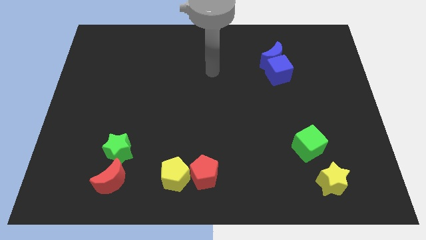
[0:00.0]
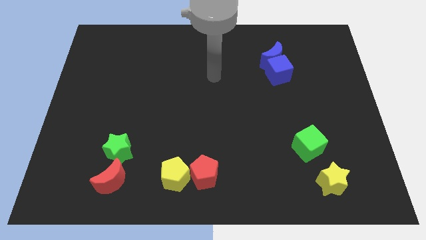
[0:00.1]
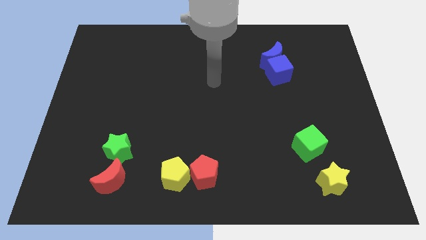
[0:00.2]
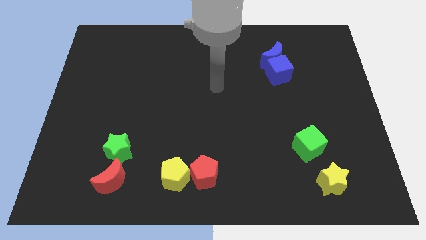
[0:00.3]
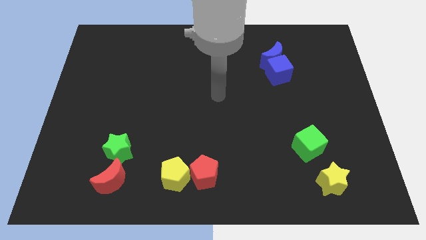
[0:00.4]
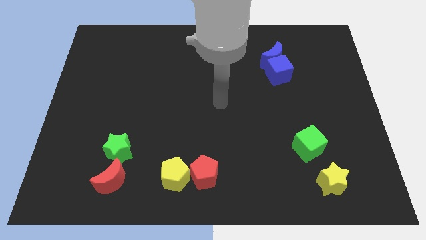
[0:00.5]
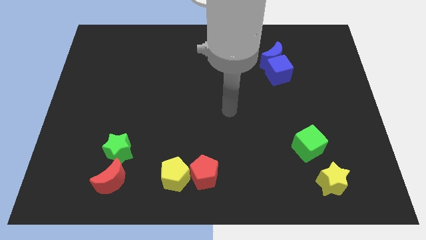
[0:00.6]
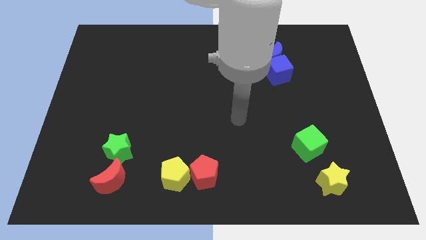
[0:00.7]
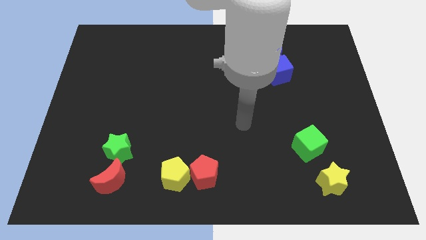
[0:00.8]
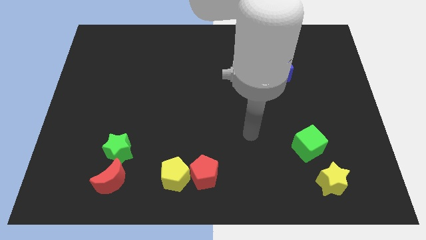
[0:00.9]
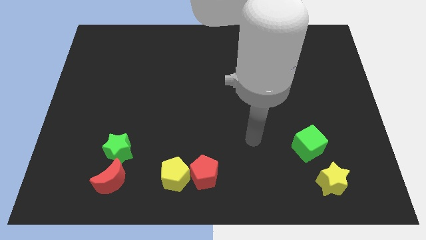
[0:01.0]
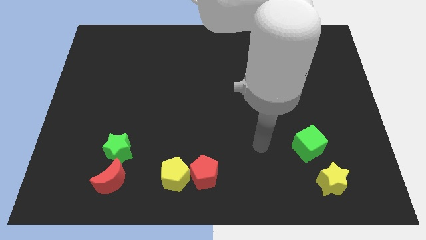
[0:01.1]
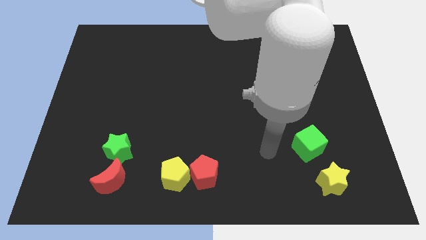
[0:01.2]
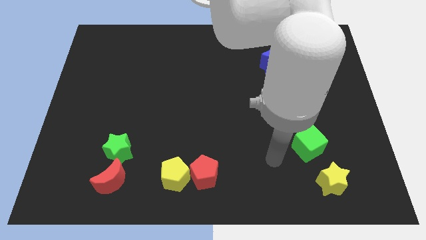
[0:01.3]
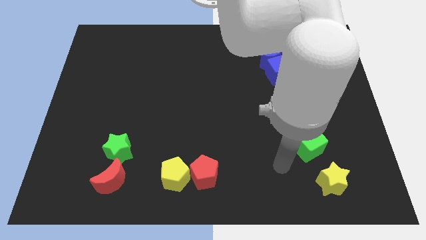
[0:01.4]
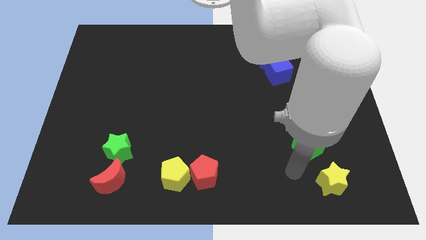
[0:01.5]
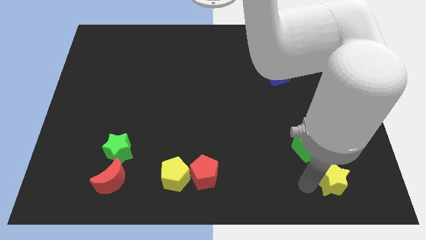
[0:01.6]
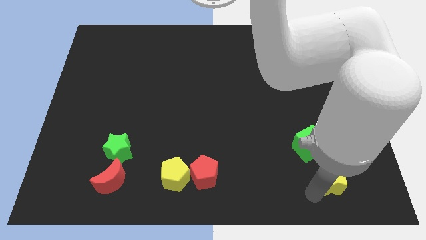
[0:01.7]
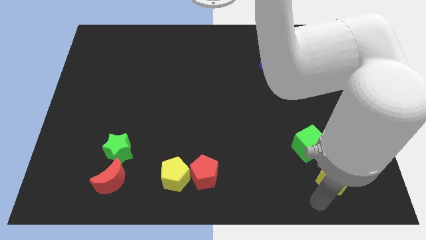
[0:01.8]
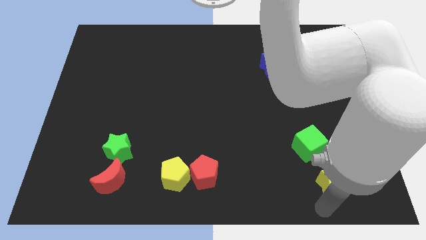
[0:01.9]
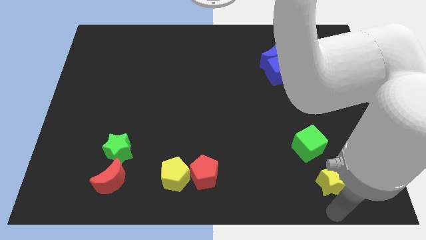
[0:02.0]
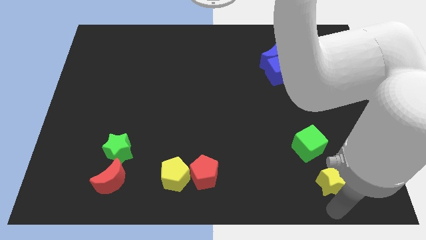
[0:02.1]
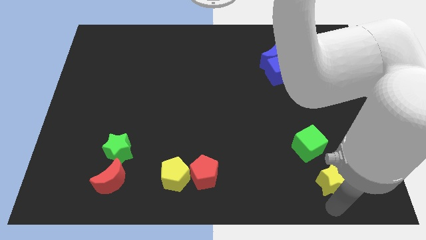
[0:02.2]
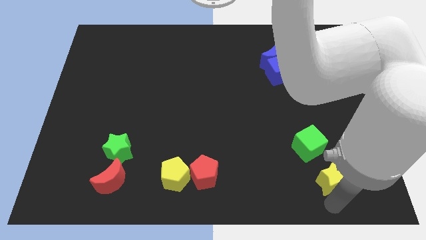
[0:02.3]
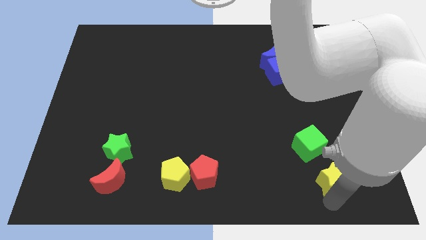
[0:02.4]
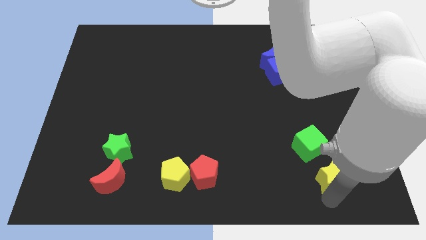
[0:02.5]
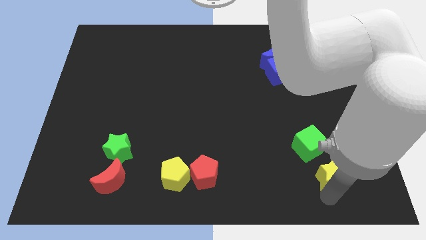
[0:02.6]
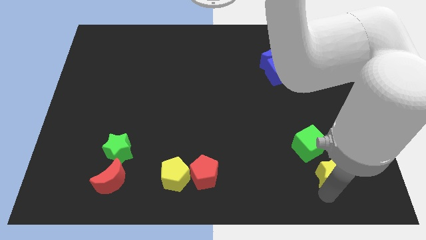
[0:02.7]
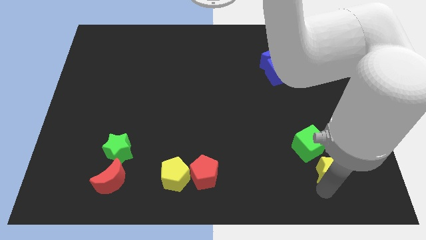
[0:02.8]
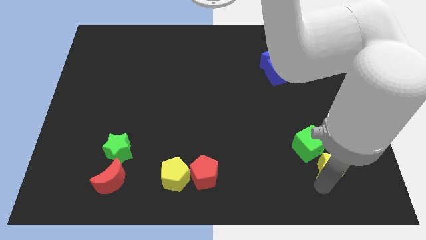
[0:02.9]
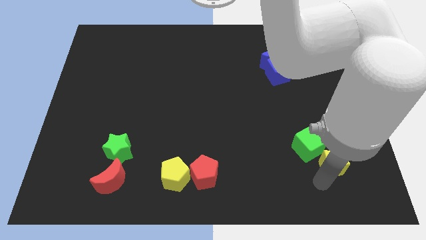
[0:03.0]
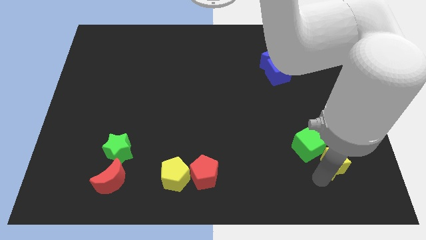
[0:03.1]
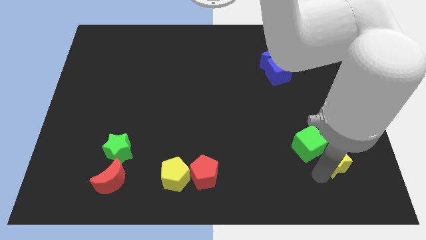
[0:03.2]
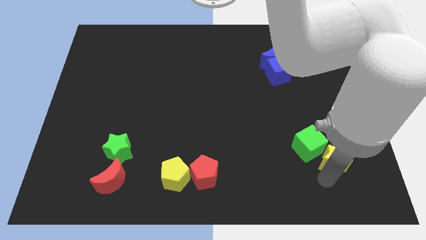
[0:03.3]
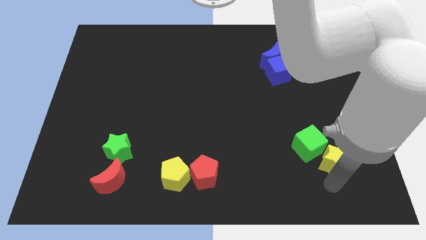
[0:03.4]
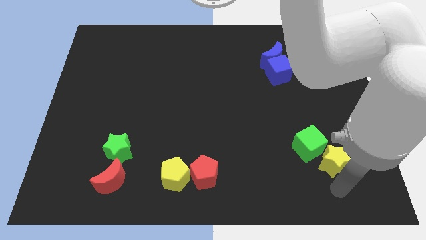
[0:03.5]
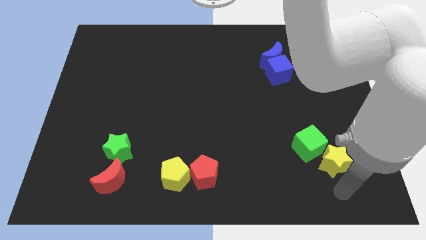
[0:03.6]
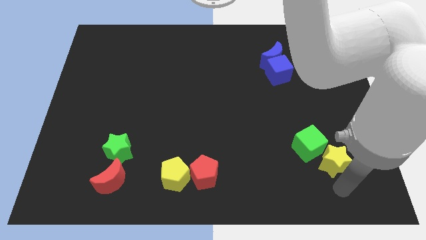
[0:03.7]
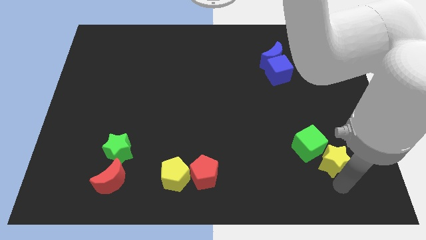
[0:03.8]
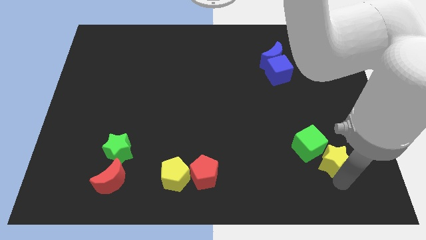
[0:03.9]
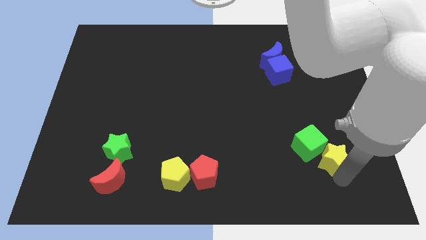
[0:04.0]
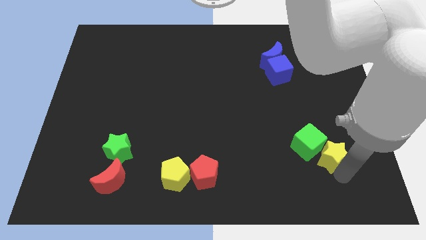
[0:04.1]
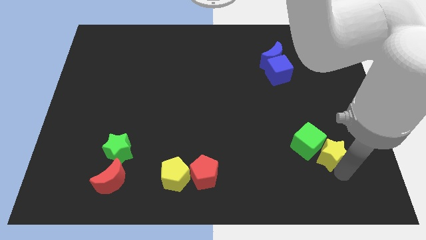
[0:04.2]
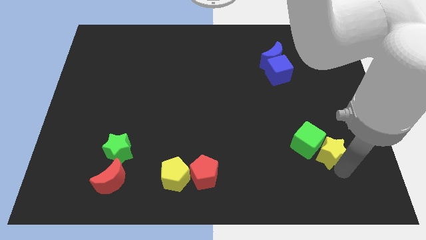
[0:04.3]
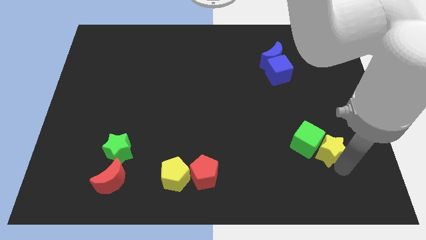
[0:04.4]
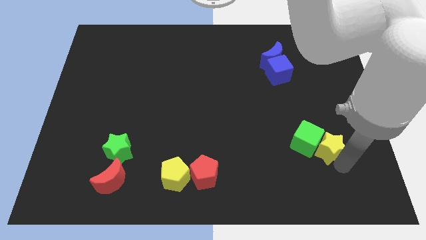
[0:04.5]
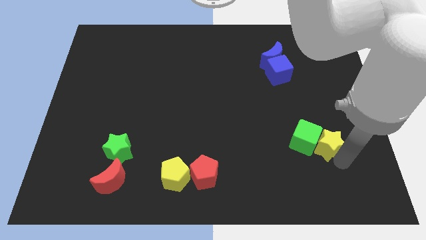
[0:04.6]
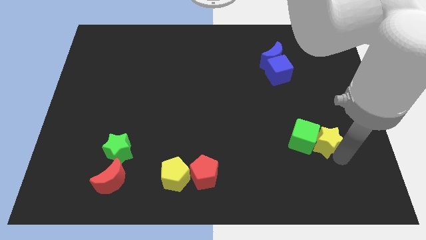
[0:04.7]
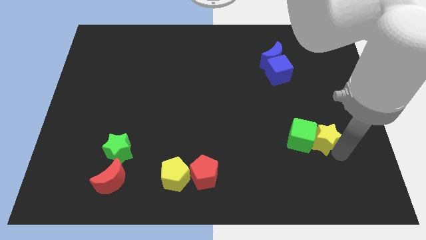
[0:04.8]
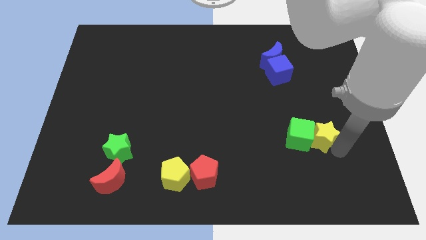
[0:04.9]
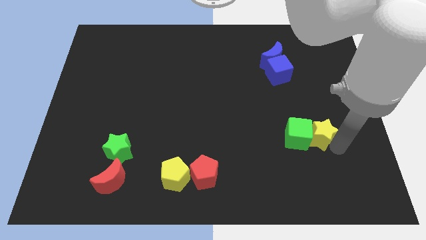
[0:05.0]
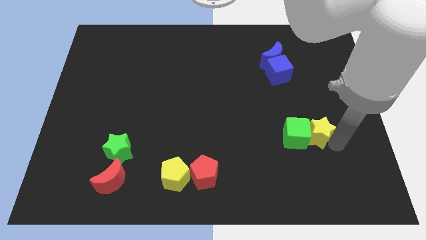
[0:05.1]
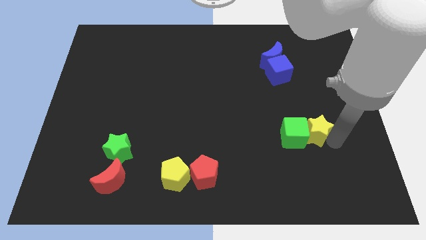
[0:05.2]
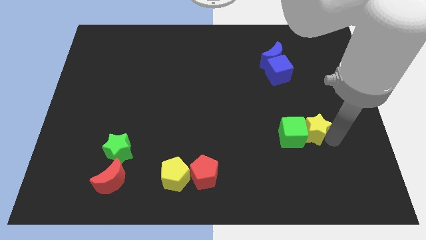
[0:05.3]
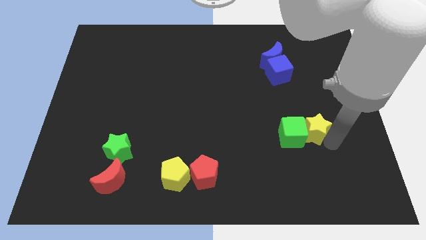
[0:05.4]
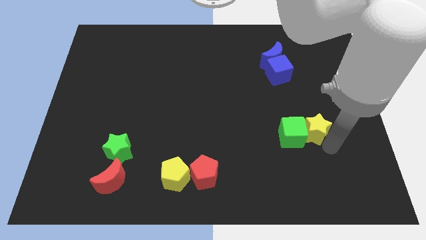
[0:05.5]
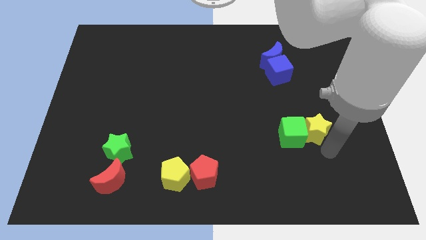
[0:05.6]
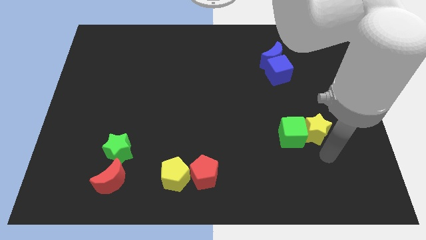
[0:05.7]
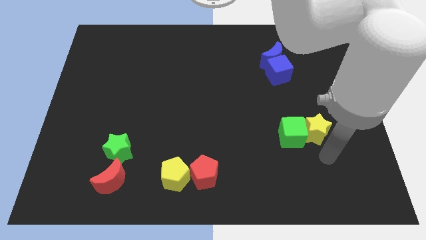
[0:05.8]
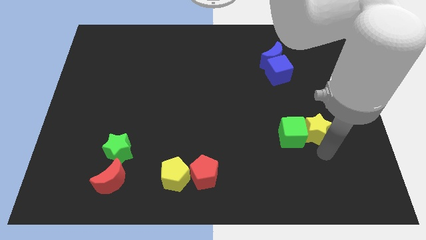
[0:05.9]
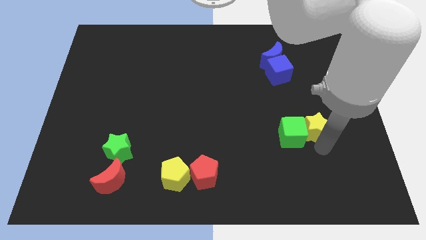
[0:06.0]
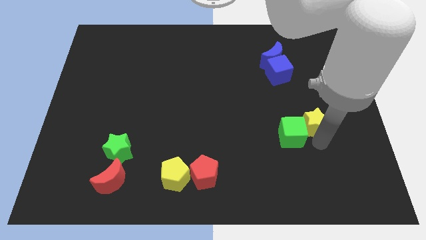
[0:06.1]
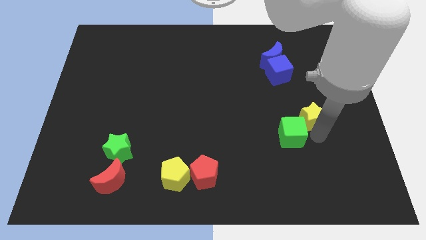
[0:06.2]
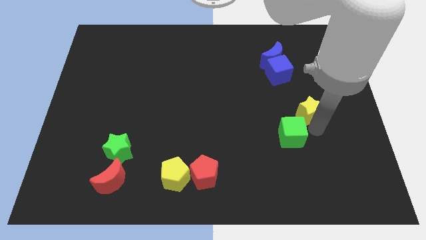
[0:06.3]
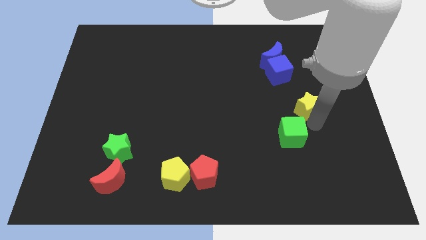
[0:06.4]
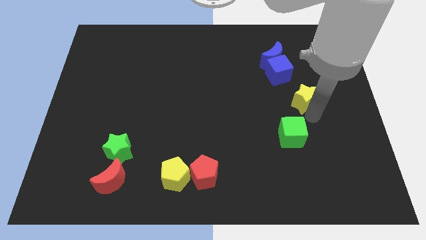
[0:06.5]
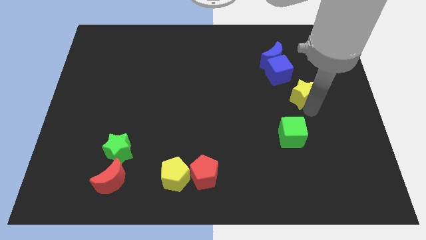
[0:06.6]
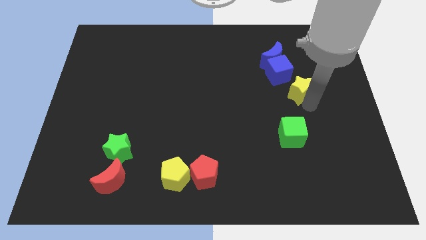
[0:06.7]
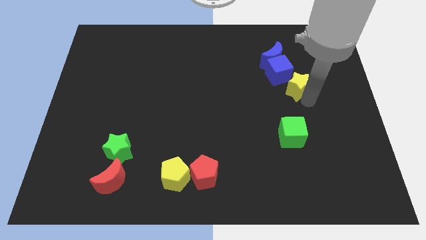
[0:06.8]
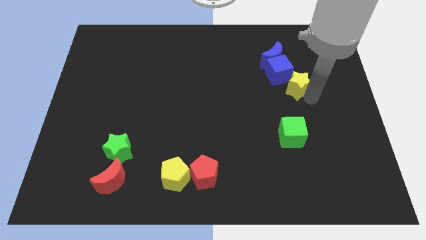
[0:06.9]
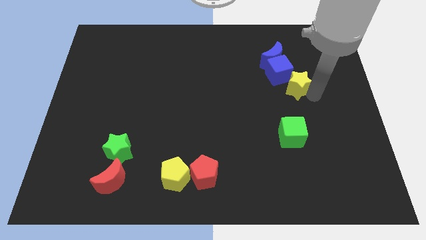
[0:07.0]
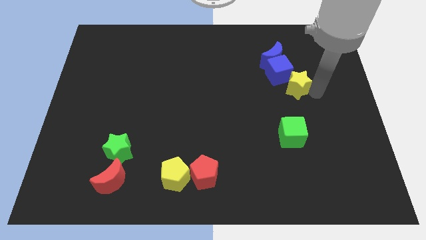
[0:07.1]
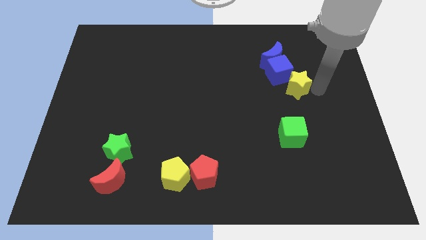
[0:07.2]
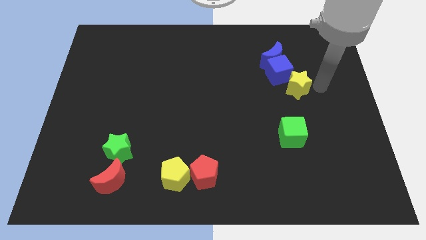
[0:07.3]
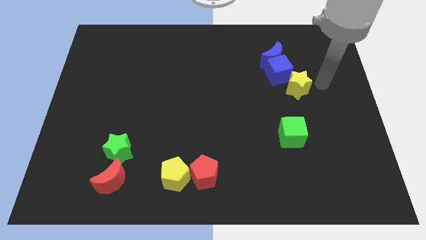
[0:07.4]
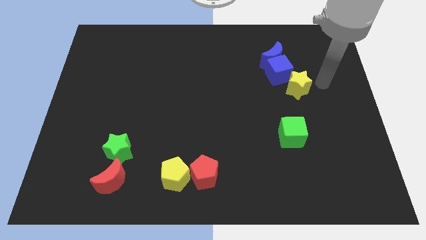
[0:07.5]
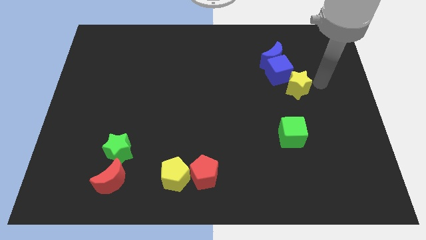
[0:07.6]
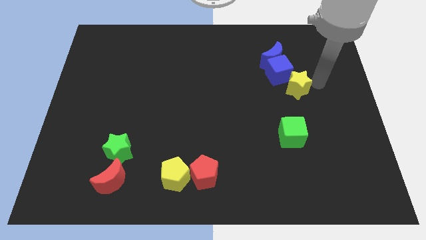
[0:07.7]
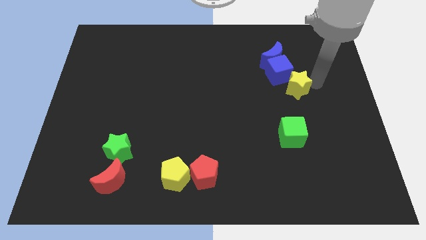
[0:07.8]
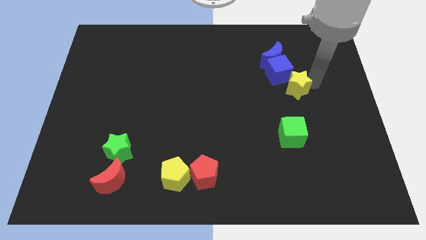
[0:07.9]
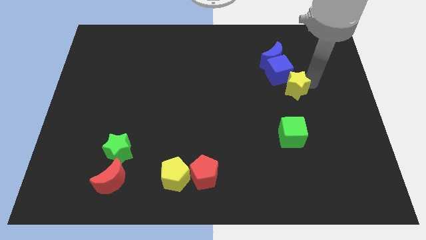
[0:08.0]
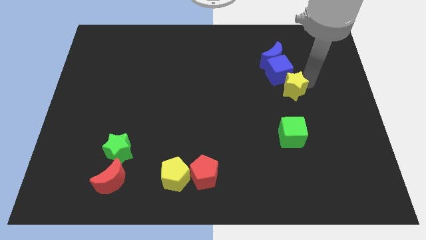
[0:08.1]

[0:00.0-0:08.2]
move the yellow star to the blue cube
